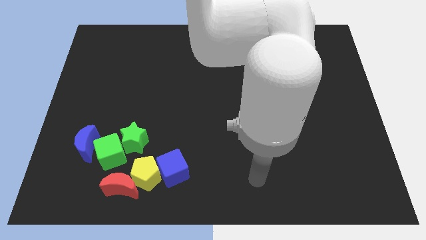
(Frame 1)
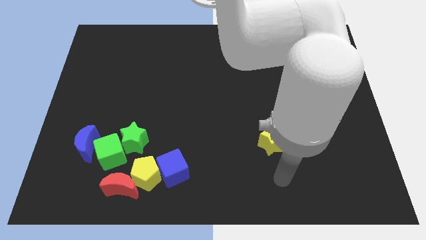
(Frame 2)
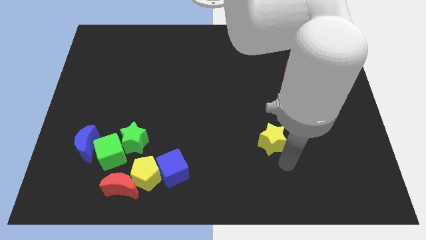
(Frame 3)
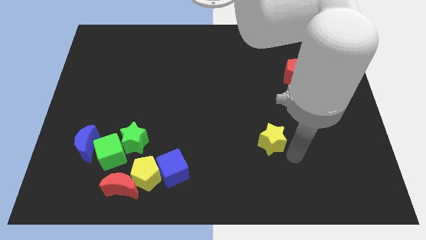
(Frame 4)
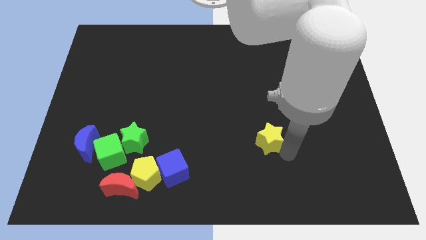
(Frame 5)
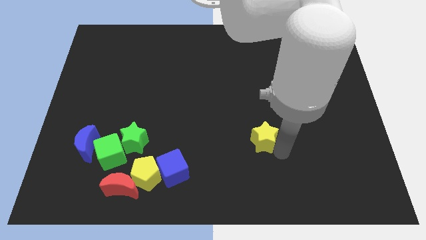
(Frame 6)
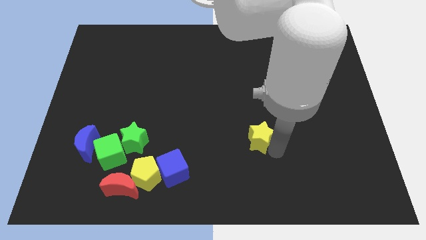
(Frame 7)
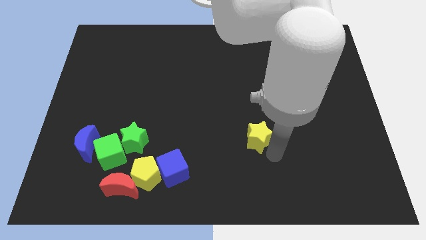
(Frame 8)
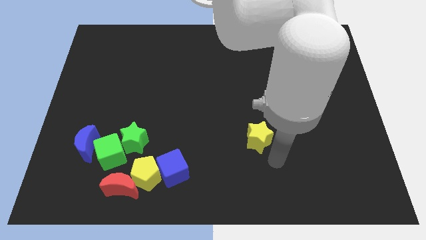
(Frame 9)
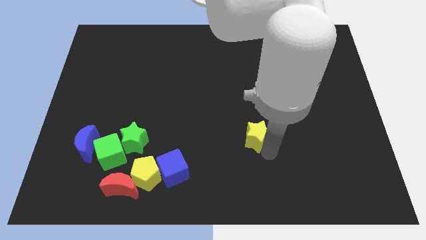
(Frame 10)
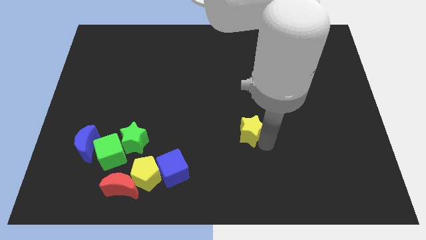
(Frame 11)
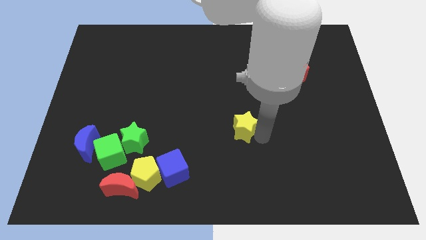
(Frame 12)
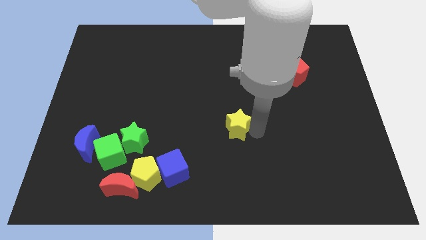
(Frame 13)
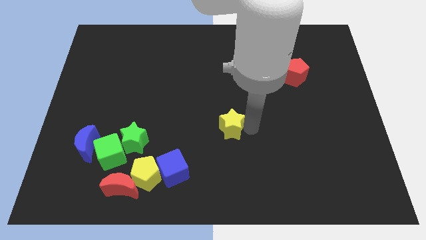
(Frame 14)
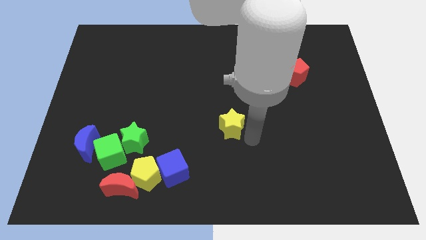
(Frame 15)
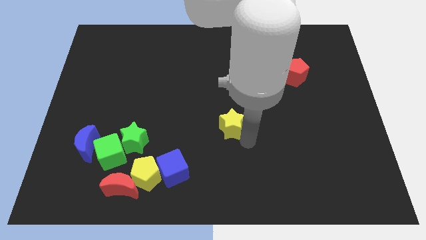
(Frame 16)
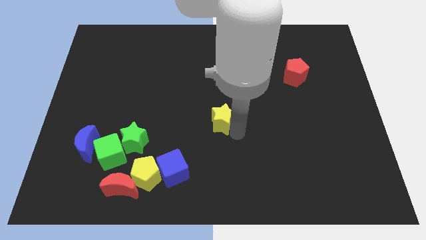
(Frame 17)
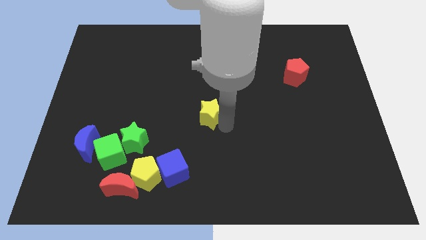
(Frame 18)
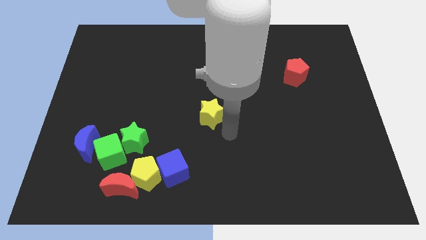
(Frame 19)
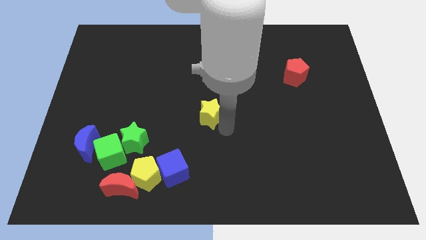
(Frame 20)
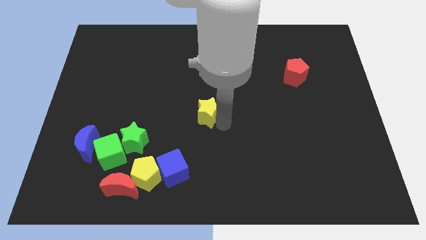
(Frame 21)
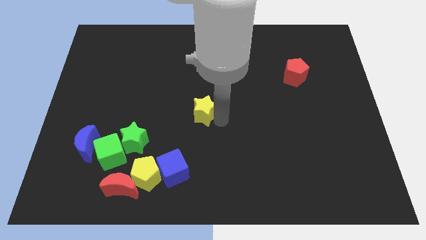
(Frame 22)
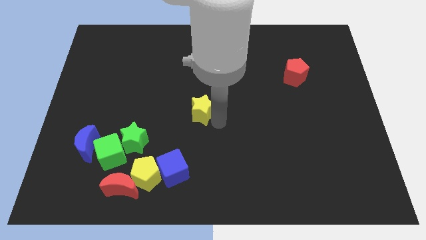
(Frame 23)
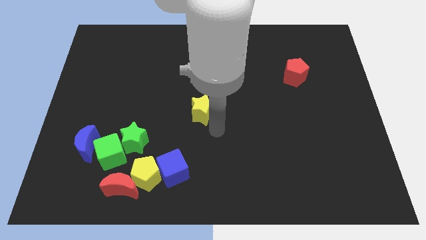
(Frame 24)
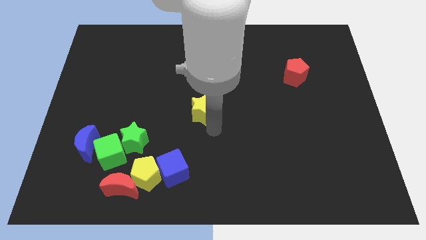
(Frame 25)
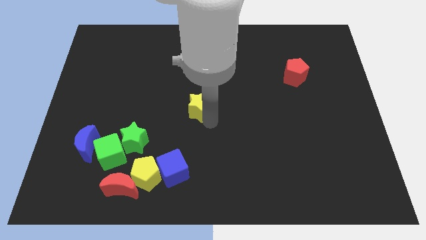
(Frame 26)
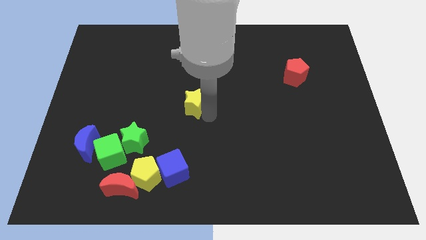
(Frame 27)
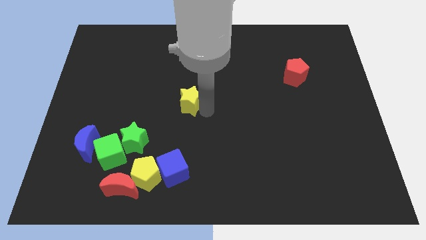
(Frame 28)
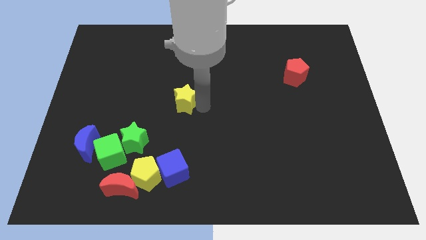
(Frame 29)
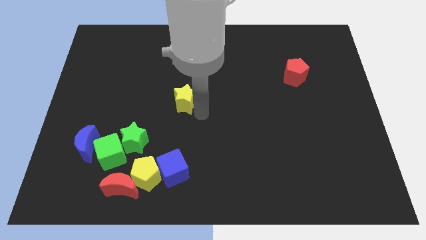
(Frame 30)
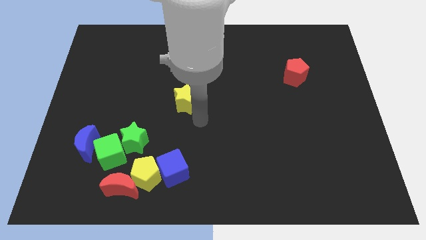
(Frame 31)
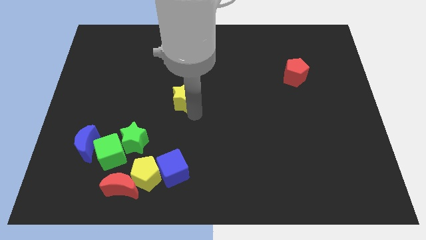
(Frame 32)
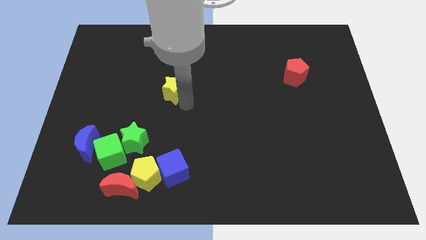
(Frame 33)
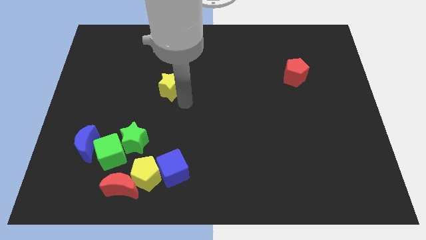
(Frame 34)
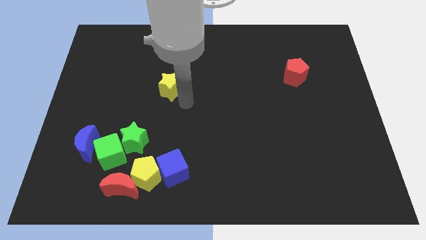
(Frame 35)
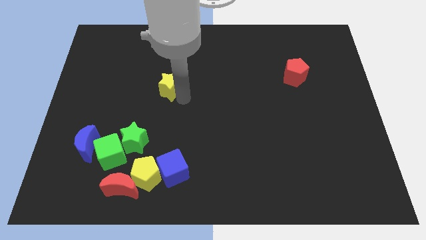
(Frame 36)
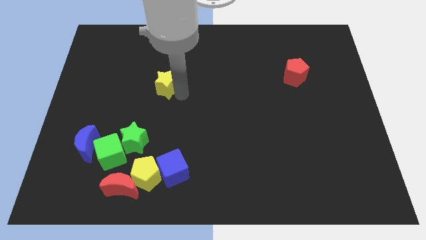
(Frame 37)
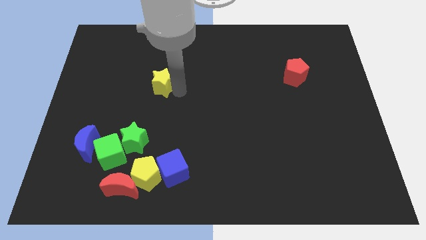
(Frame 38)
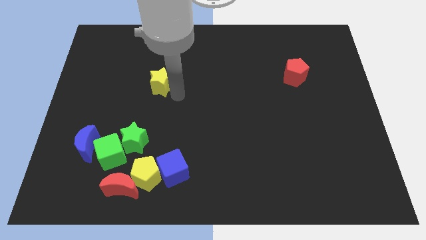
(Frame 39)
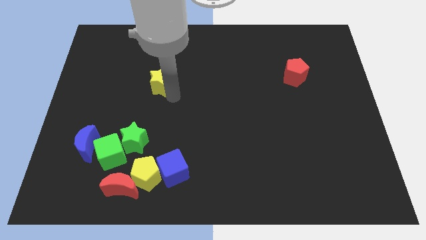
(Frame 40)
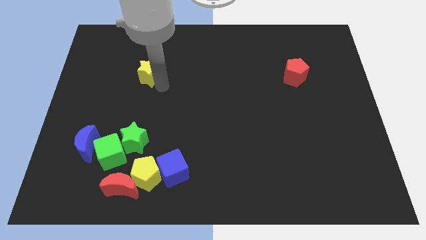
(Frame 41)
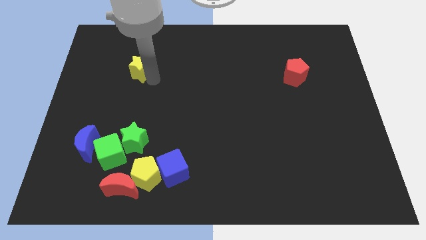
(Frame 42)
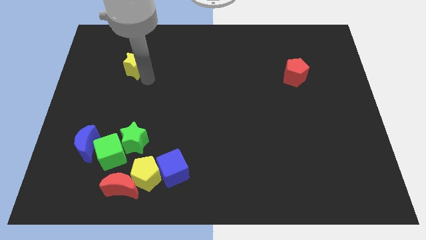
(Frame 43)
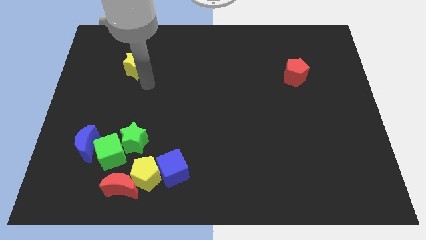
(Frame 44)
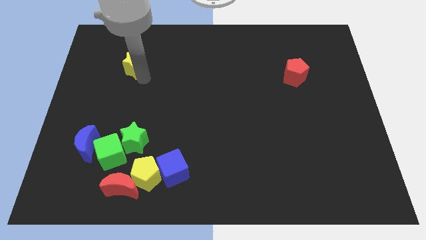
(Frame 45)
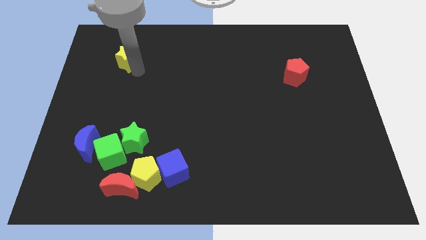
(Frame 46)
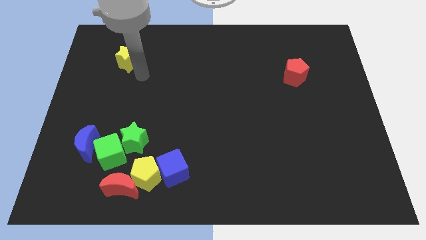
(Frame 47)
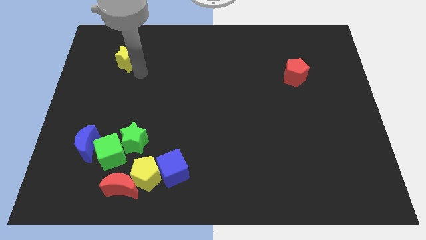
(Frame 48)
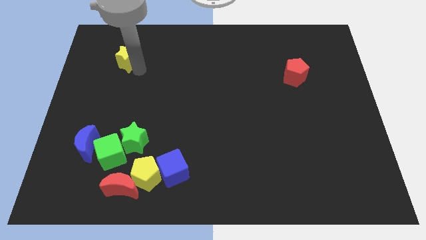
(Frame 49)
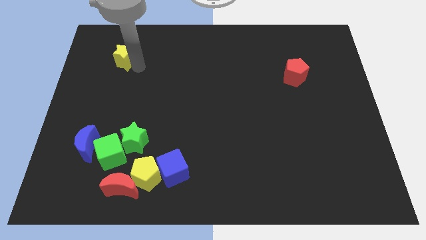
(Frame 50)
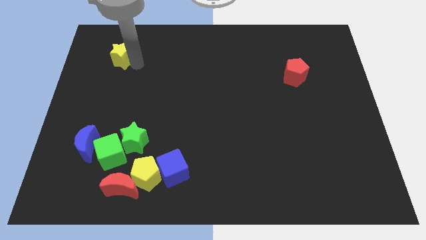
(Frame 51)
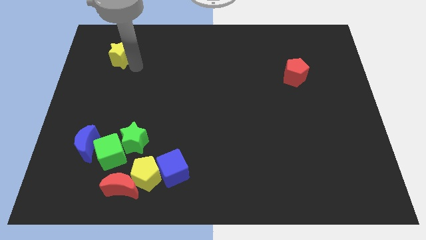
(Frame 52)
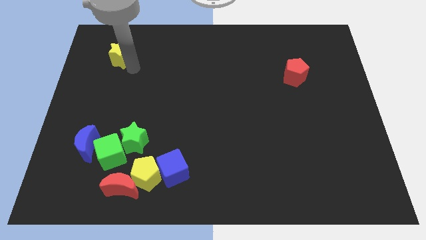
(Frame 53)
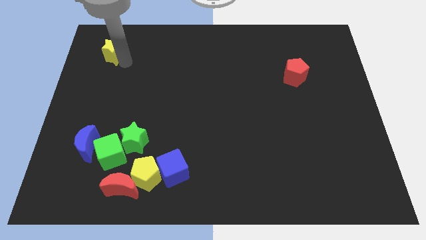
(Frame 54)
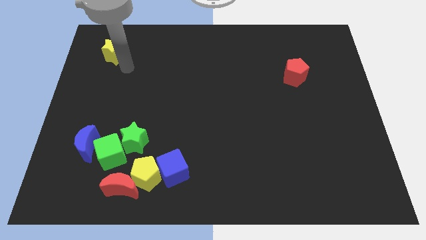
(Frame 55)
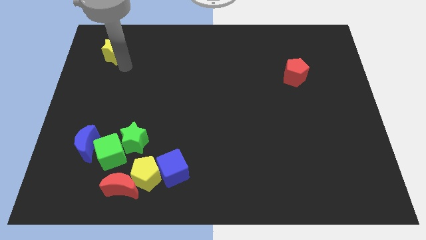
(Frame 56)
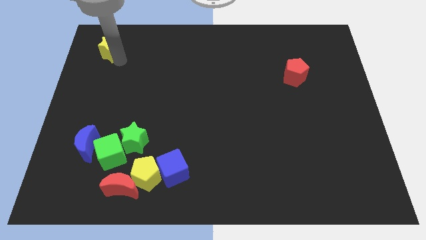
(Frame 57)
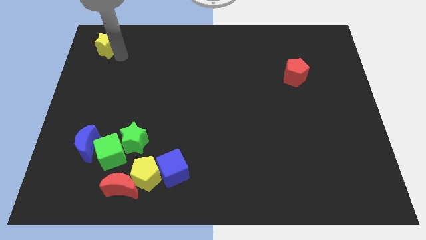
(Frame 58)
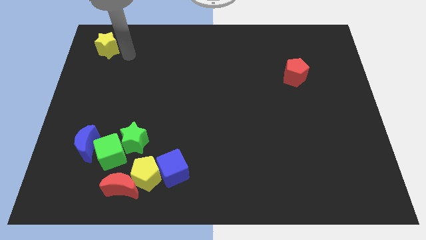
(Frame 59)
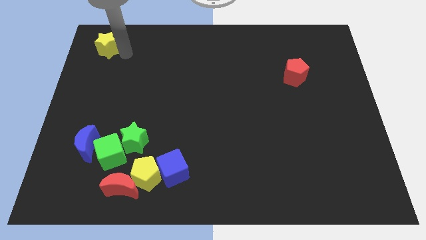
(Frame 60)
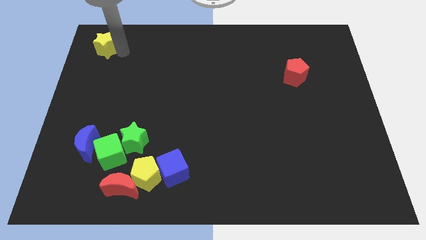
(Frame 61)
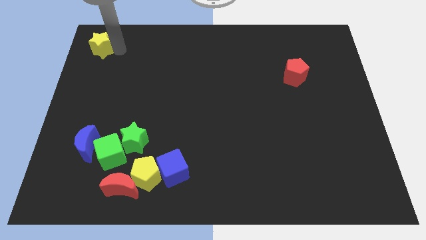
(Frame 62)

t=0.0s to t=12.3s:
slide the yellow star to the top left

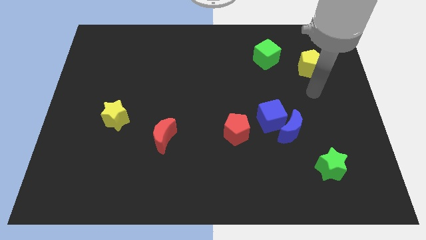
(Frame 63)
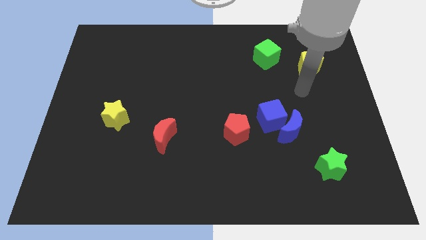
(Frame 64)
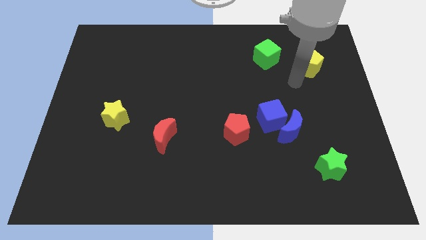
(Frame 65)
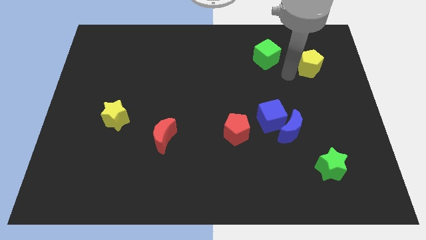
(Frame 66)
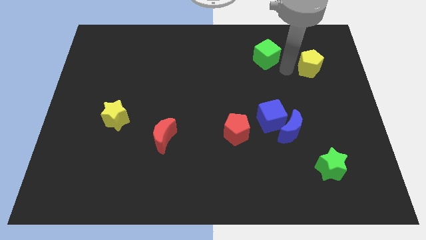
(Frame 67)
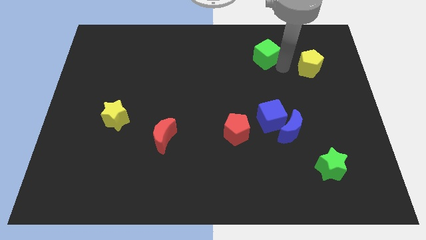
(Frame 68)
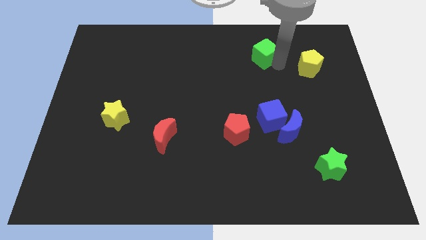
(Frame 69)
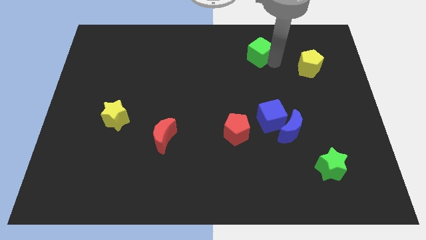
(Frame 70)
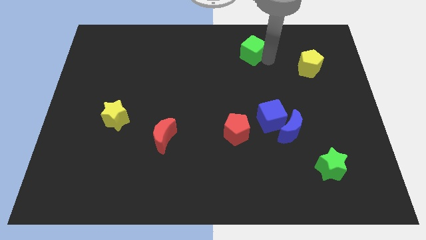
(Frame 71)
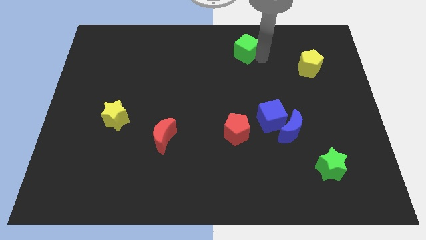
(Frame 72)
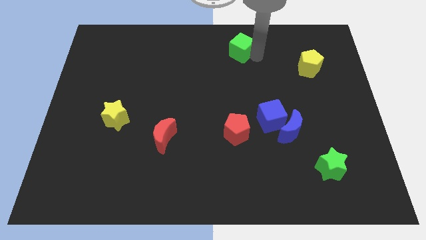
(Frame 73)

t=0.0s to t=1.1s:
push the green cube to the top
